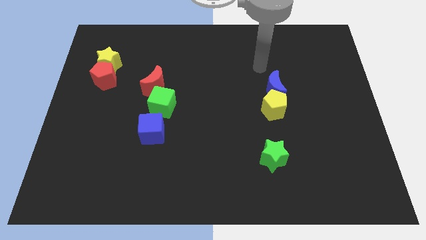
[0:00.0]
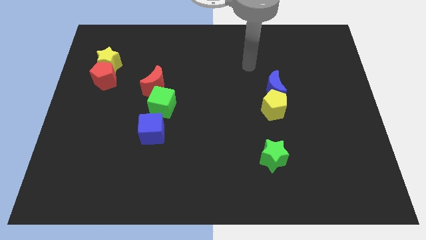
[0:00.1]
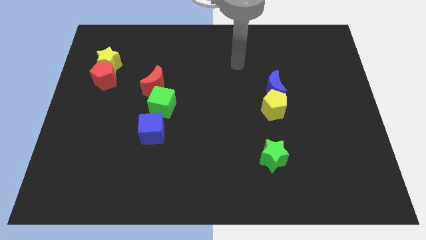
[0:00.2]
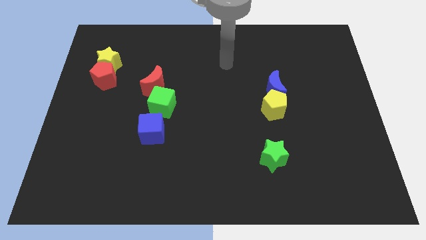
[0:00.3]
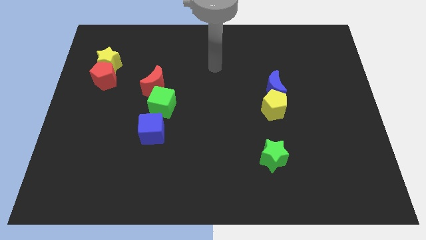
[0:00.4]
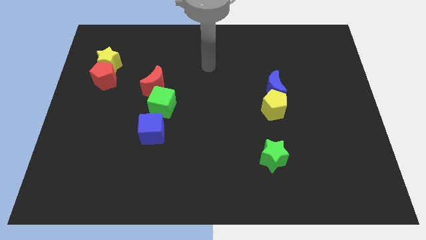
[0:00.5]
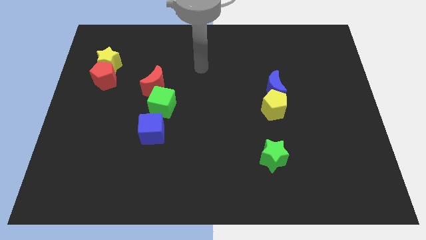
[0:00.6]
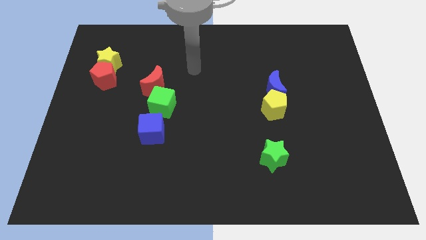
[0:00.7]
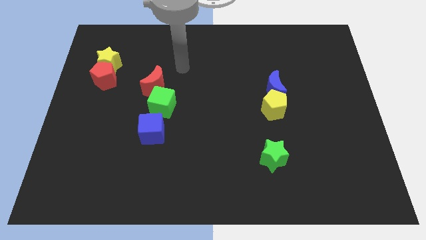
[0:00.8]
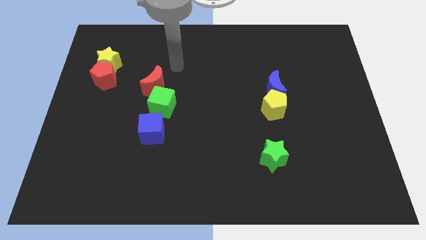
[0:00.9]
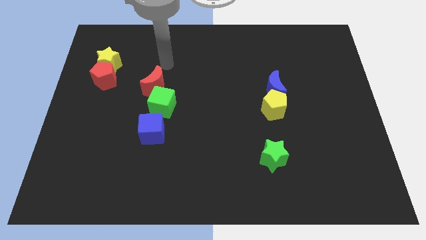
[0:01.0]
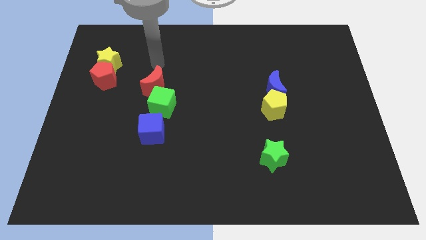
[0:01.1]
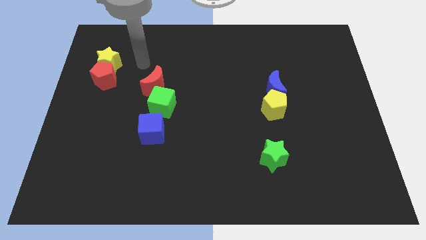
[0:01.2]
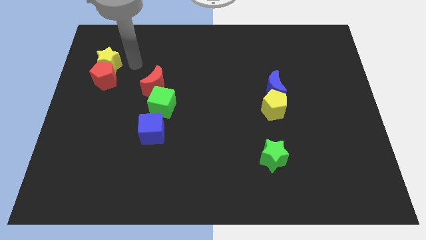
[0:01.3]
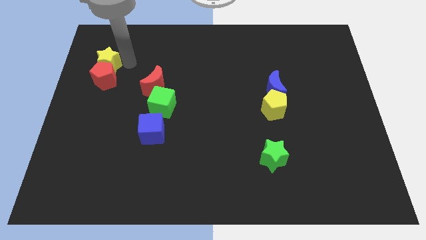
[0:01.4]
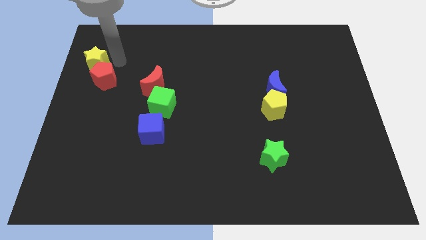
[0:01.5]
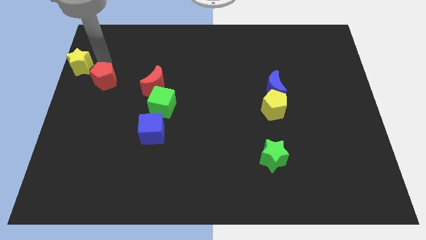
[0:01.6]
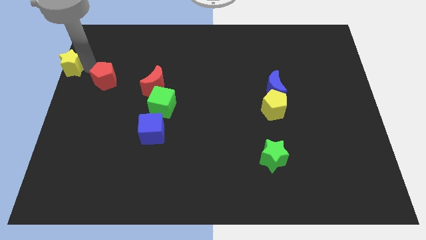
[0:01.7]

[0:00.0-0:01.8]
pull the red pentagon apart from the yellow star

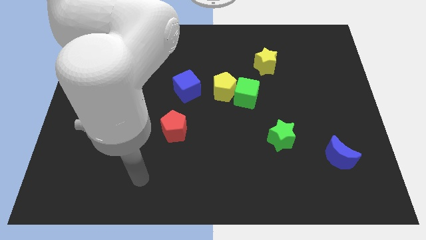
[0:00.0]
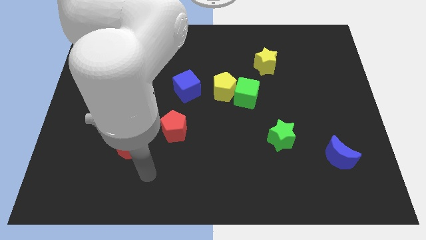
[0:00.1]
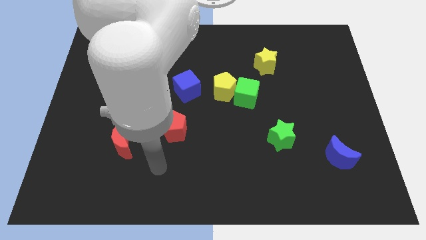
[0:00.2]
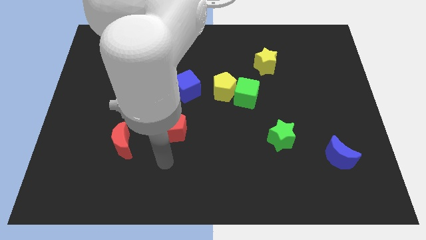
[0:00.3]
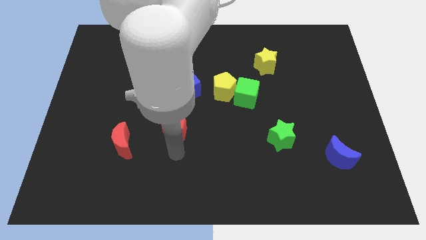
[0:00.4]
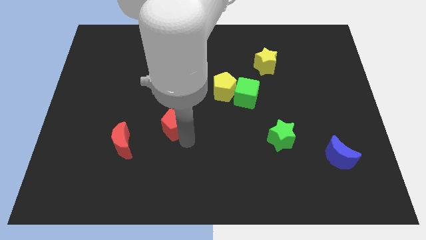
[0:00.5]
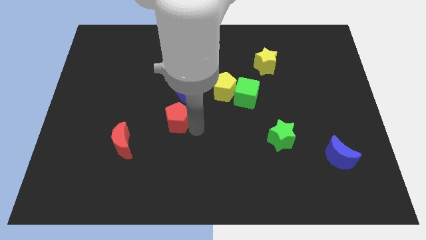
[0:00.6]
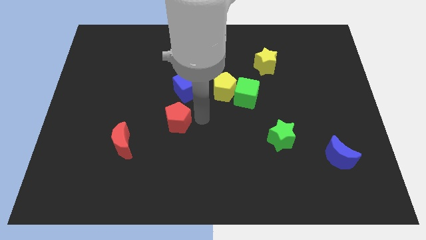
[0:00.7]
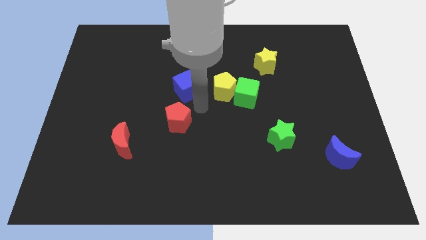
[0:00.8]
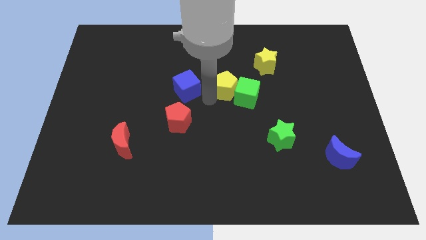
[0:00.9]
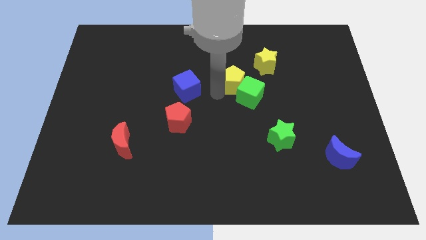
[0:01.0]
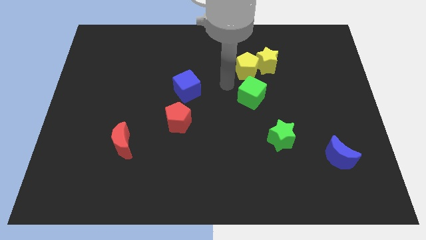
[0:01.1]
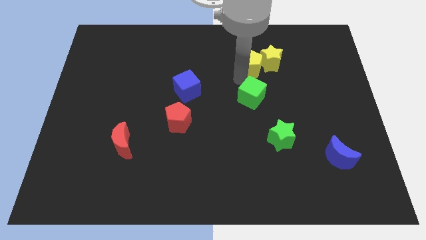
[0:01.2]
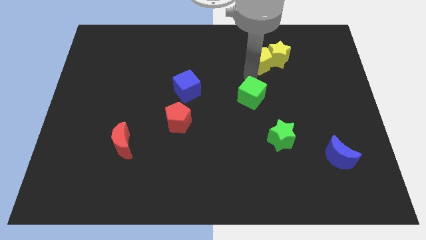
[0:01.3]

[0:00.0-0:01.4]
move the green cube away from the yellow pentagon

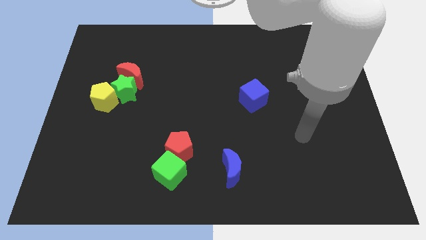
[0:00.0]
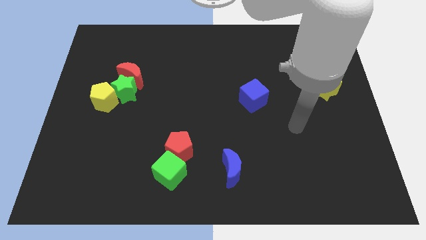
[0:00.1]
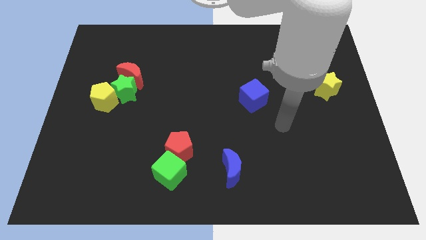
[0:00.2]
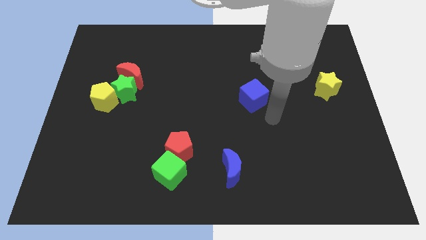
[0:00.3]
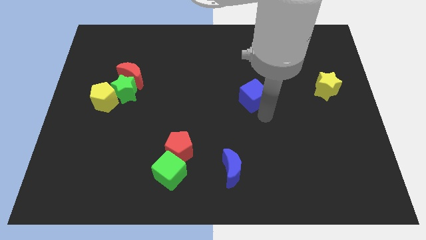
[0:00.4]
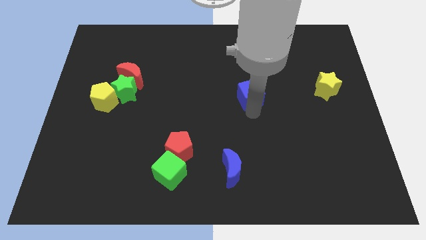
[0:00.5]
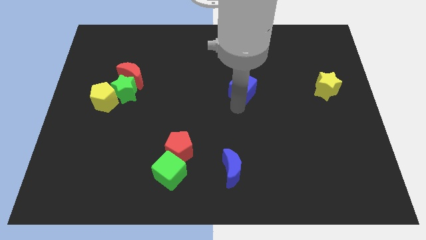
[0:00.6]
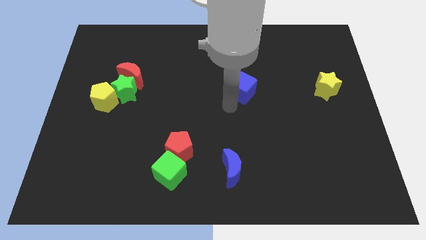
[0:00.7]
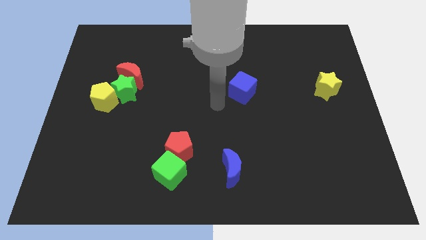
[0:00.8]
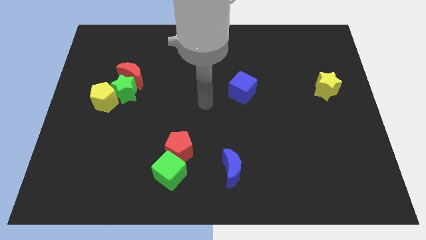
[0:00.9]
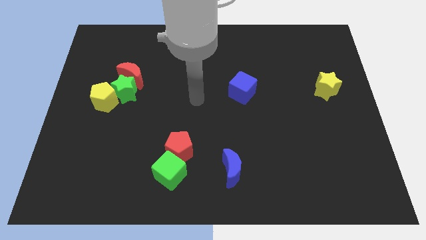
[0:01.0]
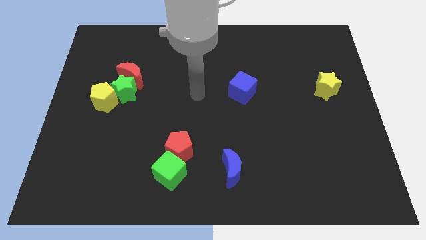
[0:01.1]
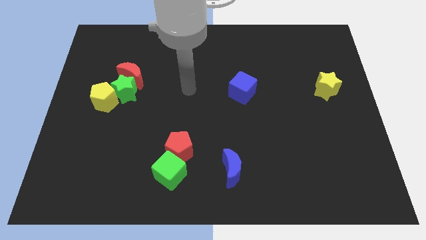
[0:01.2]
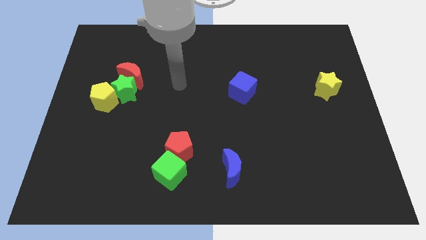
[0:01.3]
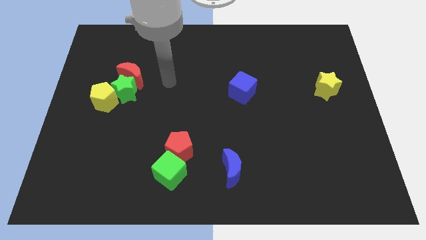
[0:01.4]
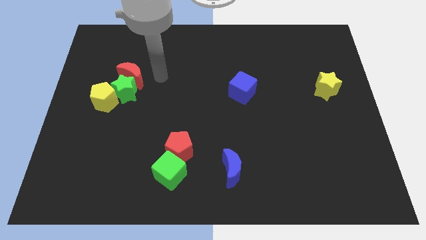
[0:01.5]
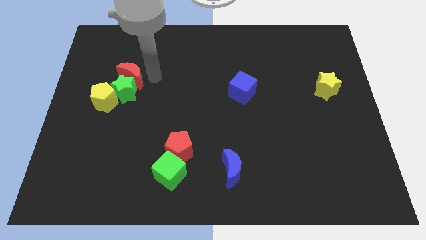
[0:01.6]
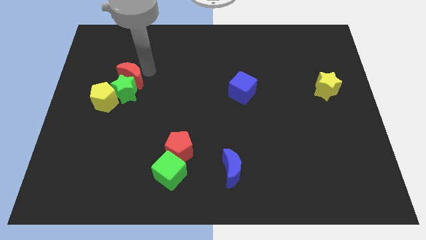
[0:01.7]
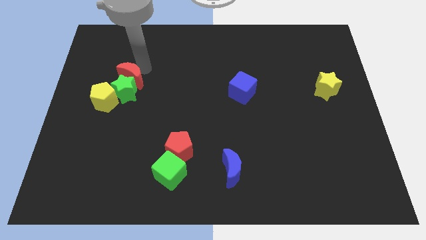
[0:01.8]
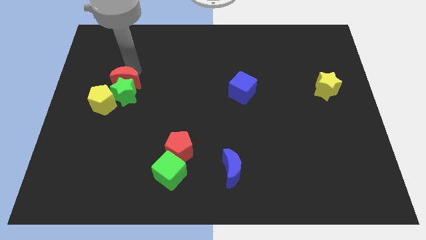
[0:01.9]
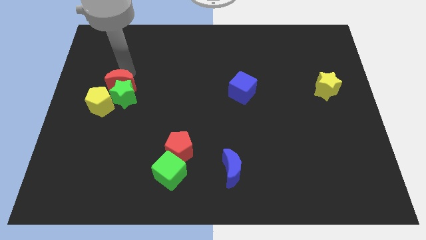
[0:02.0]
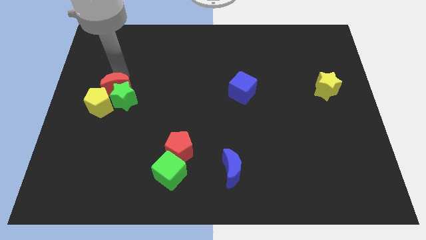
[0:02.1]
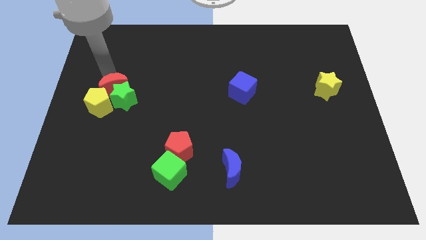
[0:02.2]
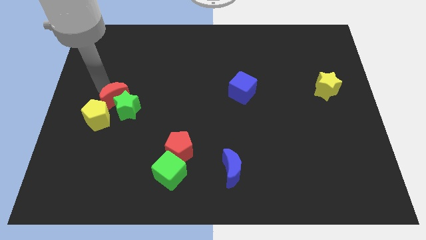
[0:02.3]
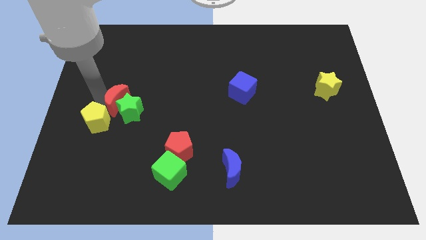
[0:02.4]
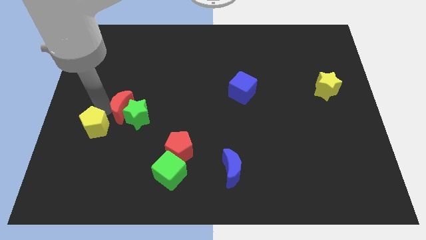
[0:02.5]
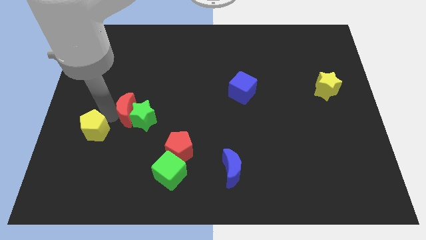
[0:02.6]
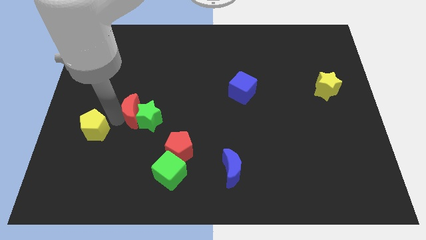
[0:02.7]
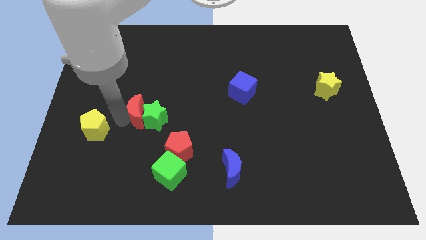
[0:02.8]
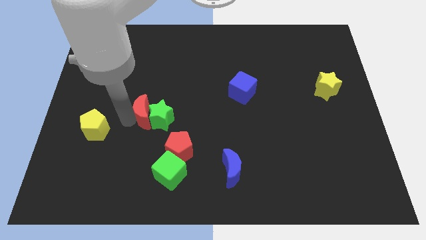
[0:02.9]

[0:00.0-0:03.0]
pull the green star apart from the red moon and yellow pentagon

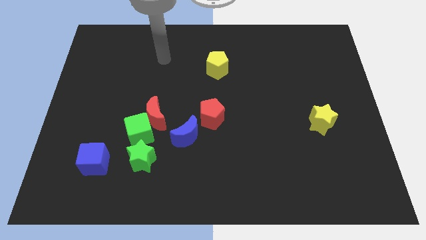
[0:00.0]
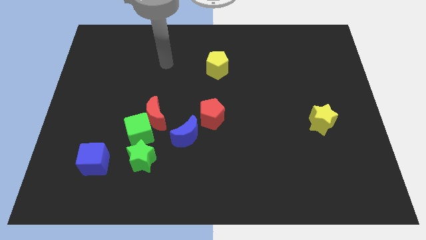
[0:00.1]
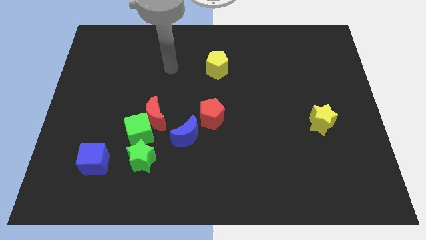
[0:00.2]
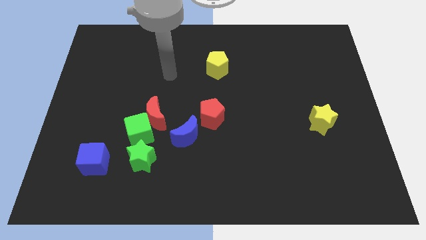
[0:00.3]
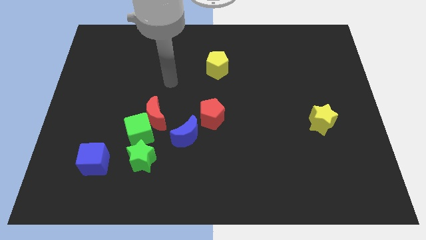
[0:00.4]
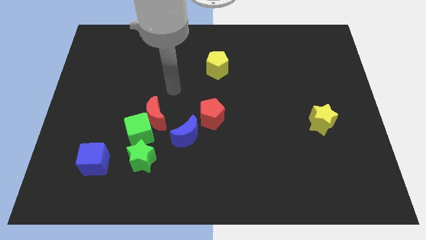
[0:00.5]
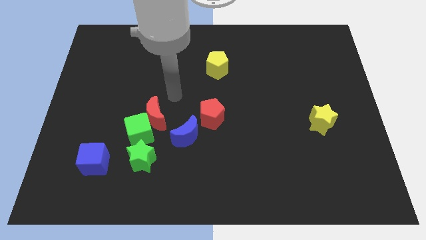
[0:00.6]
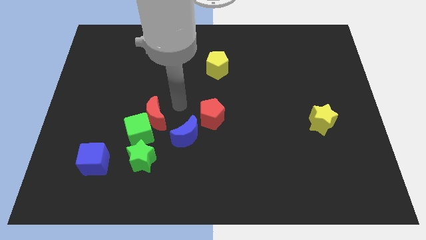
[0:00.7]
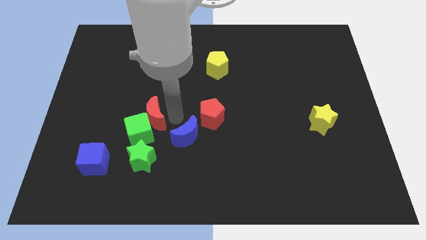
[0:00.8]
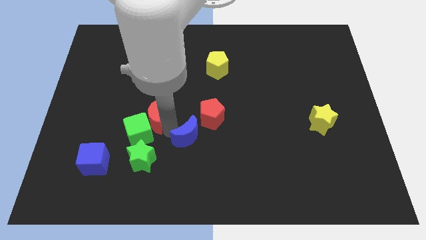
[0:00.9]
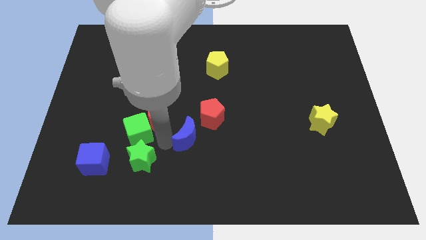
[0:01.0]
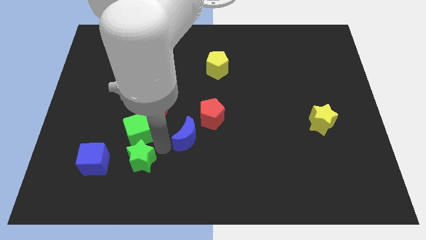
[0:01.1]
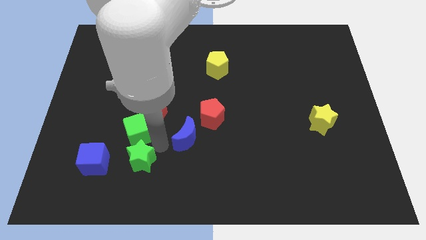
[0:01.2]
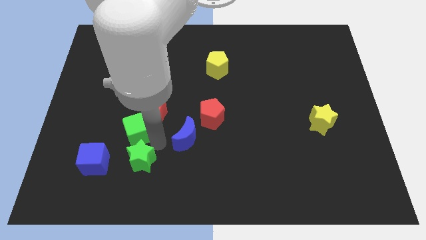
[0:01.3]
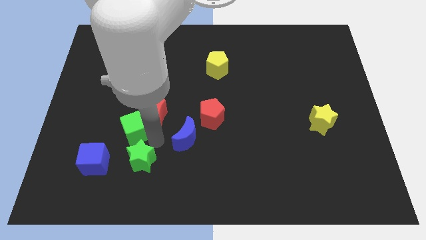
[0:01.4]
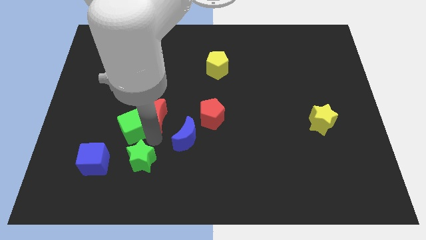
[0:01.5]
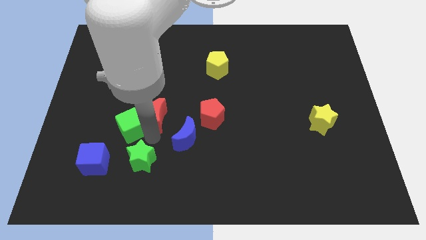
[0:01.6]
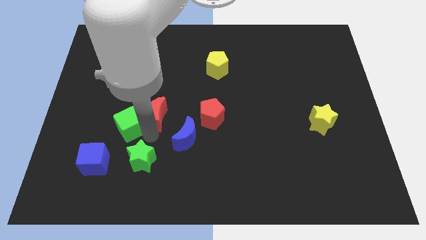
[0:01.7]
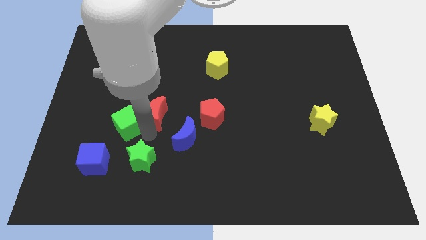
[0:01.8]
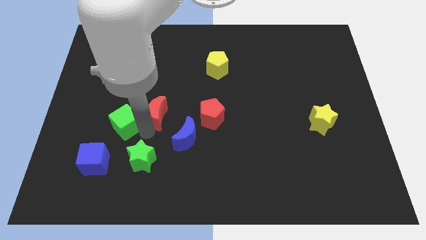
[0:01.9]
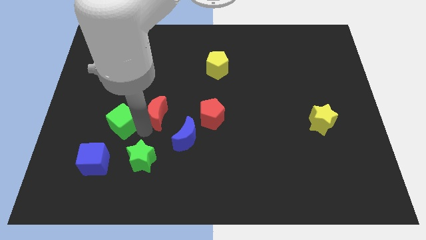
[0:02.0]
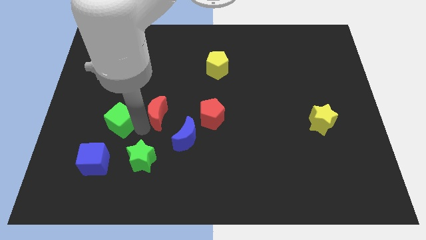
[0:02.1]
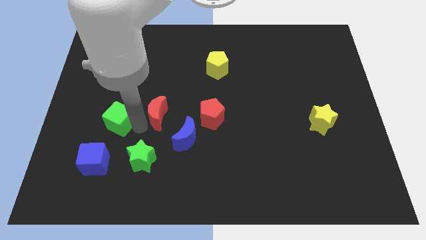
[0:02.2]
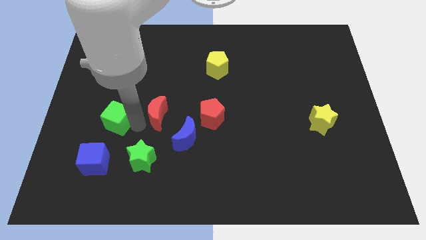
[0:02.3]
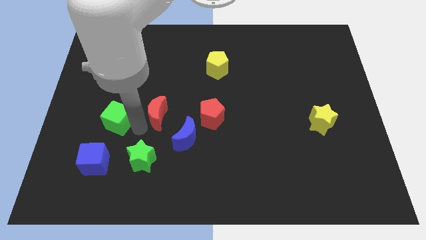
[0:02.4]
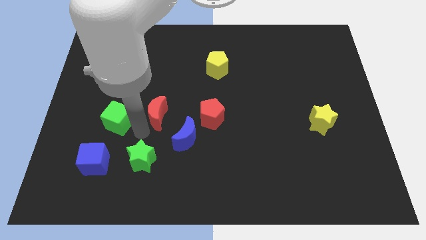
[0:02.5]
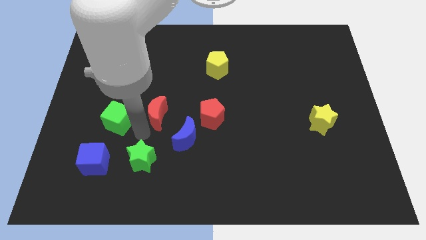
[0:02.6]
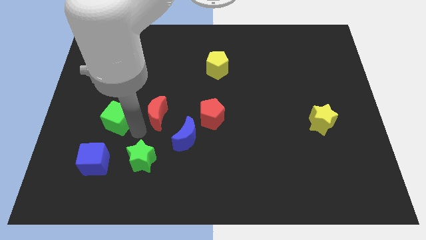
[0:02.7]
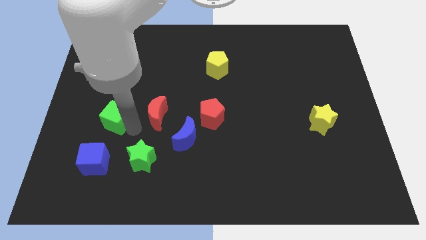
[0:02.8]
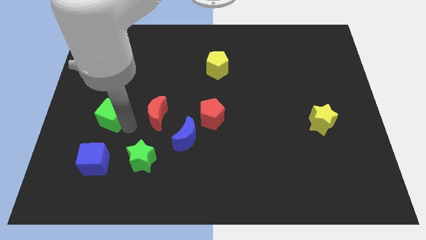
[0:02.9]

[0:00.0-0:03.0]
separate the green cube from the red moon and green star

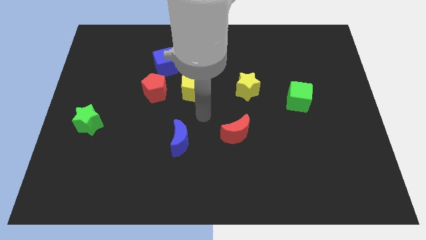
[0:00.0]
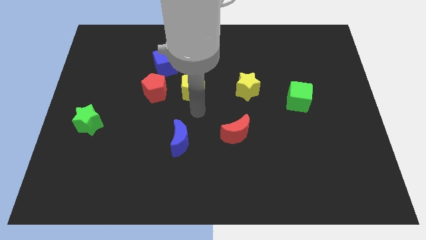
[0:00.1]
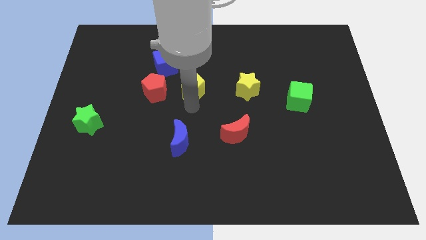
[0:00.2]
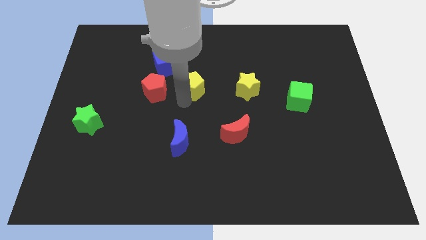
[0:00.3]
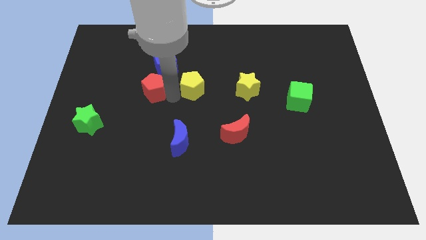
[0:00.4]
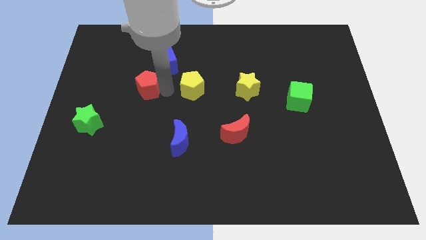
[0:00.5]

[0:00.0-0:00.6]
separate the yellow pentagon from the red pentagon
